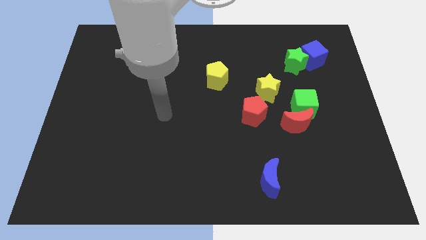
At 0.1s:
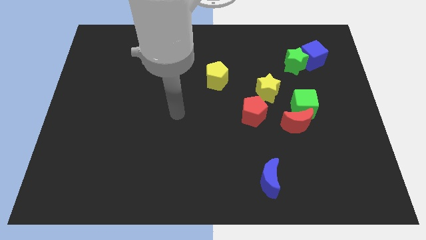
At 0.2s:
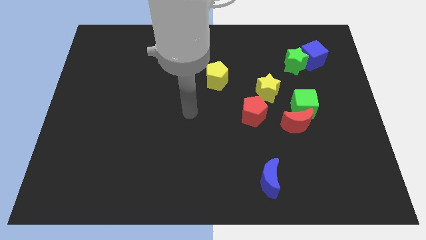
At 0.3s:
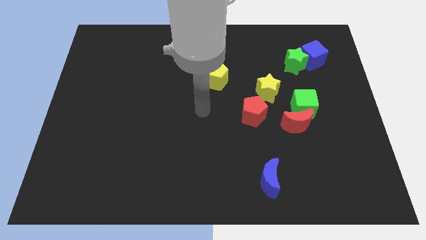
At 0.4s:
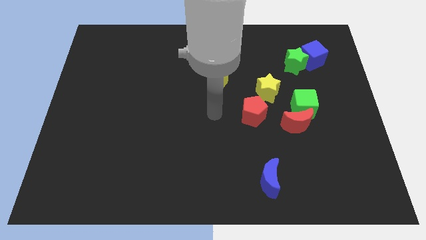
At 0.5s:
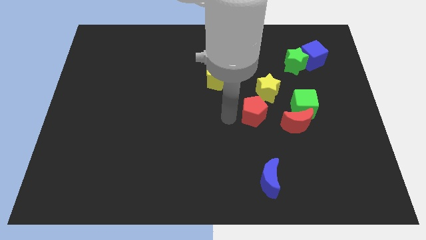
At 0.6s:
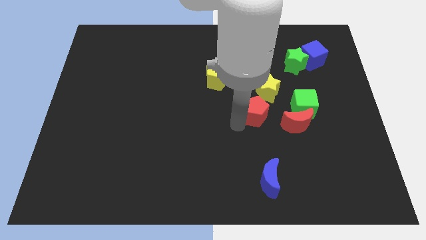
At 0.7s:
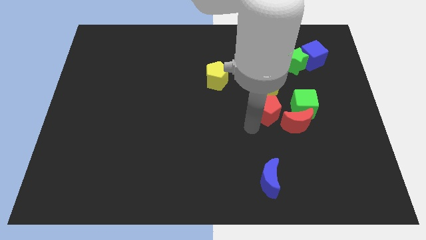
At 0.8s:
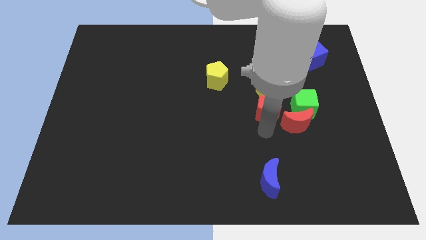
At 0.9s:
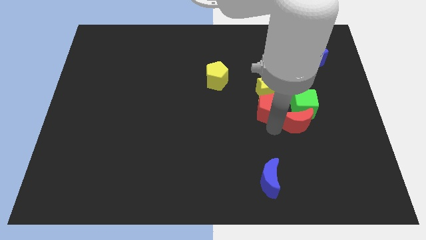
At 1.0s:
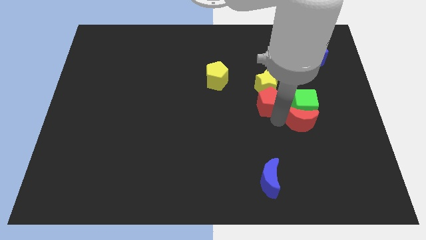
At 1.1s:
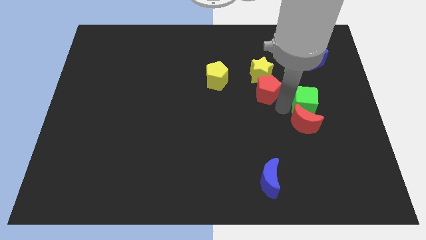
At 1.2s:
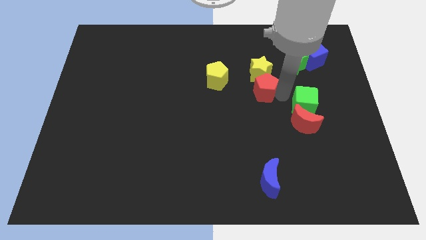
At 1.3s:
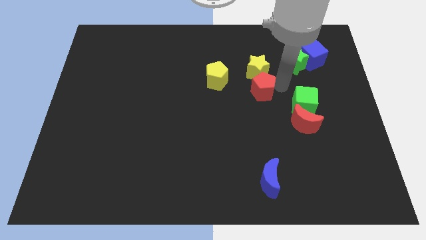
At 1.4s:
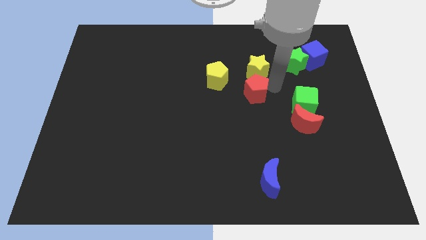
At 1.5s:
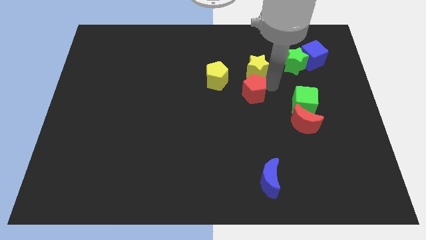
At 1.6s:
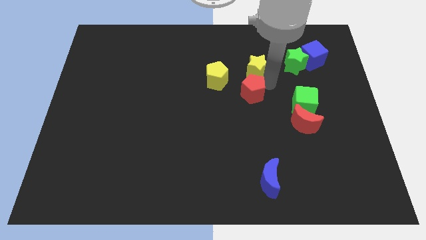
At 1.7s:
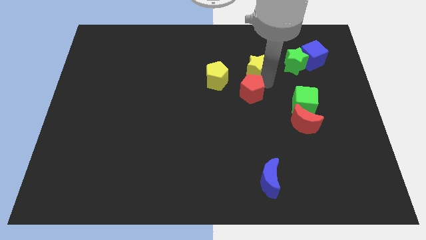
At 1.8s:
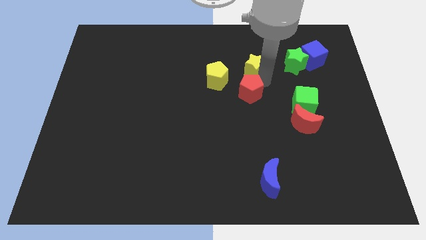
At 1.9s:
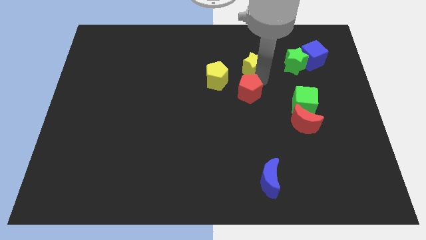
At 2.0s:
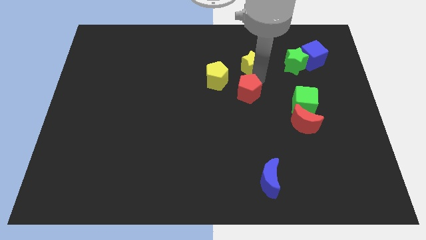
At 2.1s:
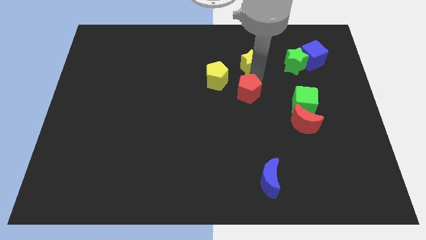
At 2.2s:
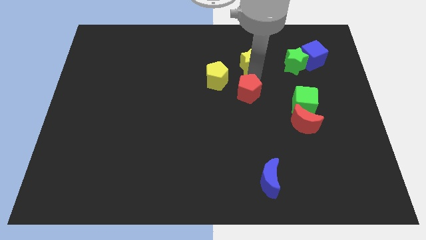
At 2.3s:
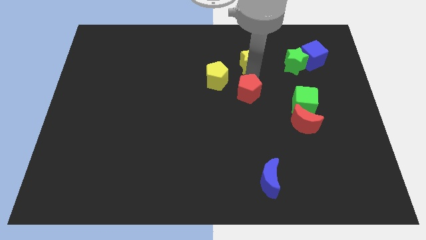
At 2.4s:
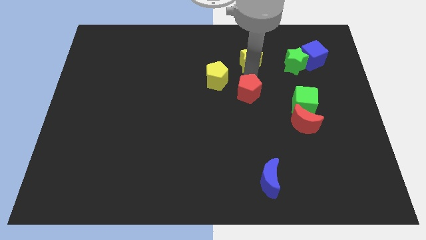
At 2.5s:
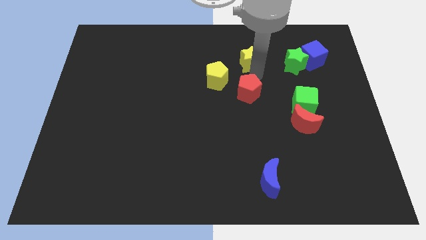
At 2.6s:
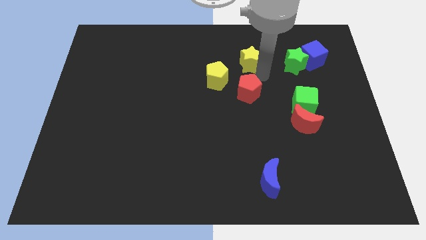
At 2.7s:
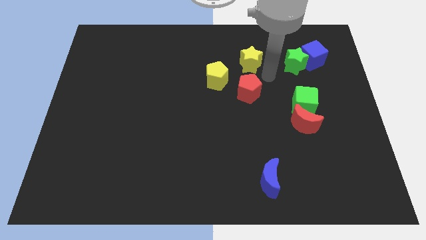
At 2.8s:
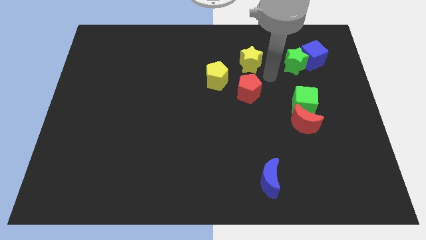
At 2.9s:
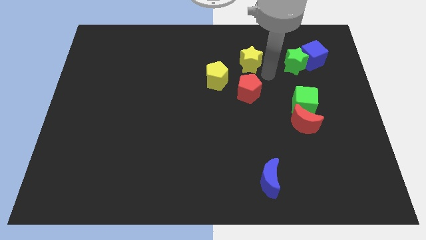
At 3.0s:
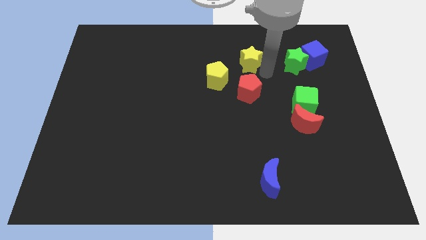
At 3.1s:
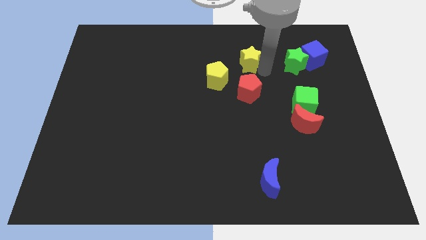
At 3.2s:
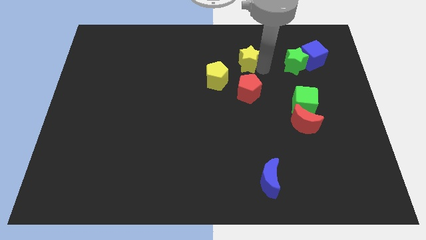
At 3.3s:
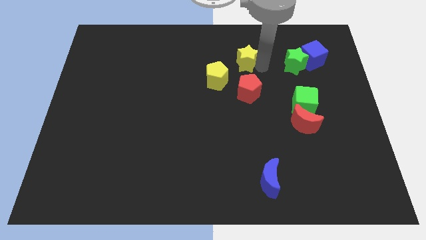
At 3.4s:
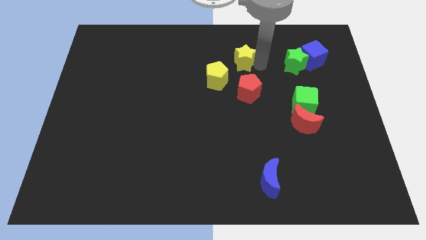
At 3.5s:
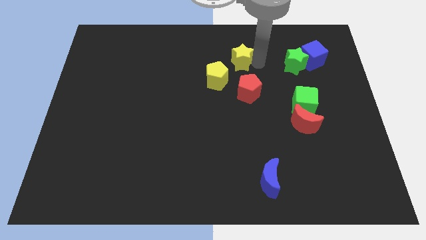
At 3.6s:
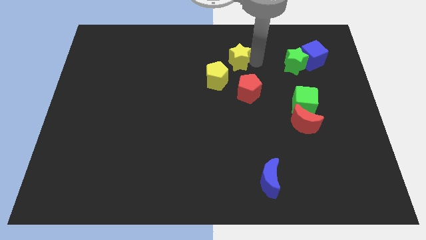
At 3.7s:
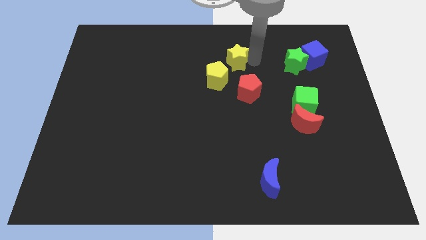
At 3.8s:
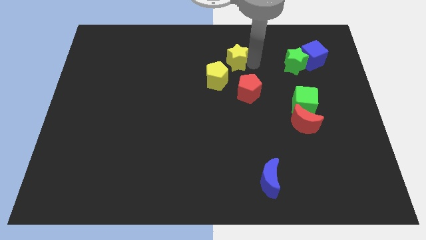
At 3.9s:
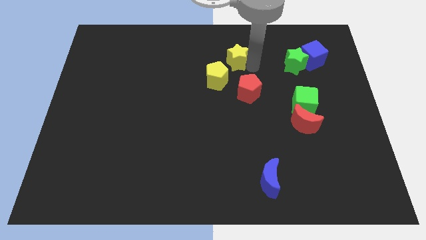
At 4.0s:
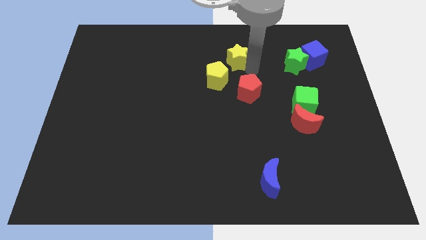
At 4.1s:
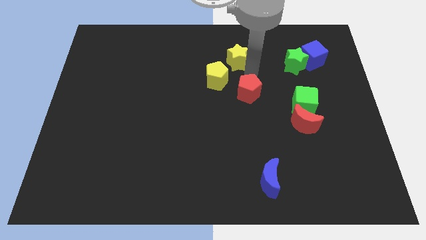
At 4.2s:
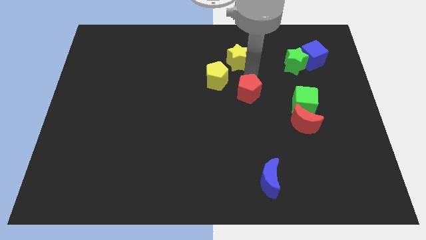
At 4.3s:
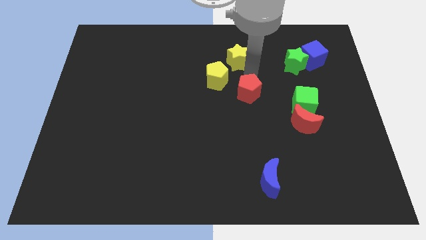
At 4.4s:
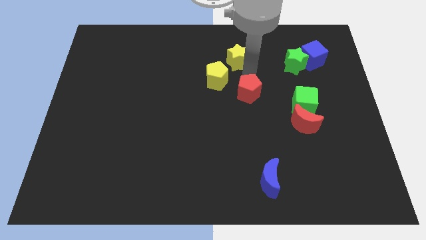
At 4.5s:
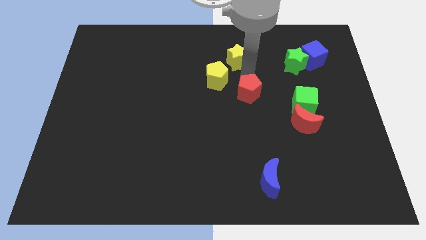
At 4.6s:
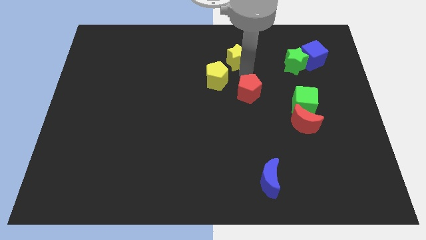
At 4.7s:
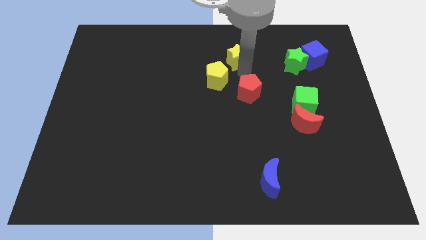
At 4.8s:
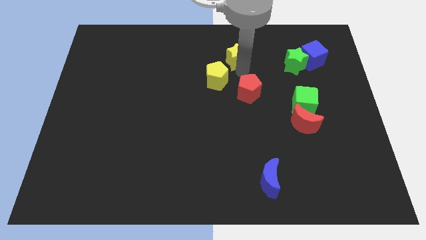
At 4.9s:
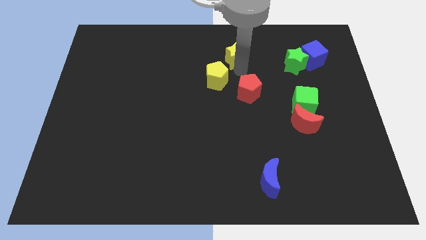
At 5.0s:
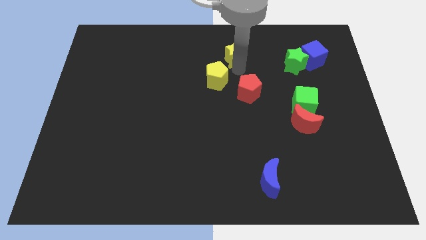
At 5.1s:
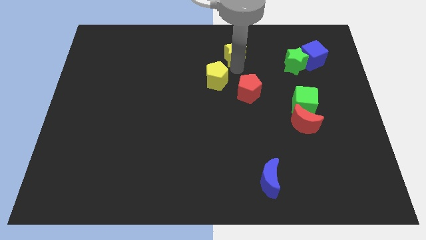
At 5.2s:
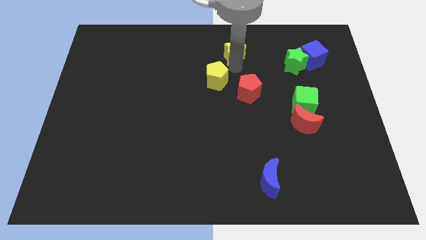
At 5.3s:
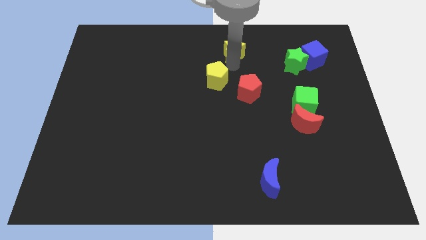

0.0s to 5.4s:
put the yellow star to the top side
